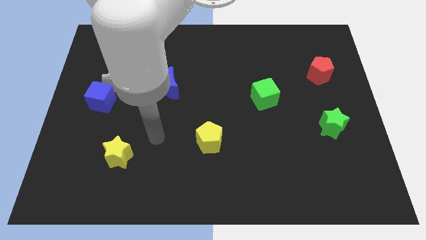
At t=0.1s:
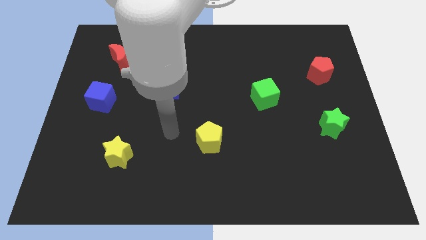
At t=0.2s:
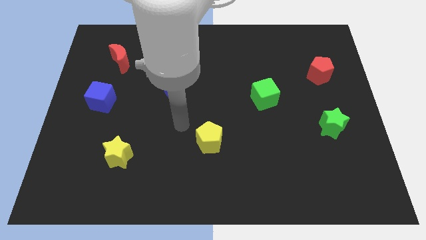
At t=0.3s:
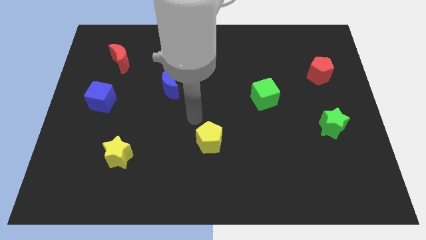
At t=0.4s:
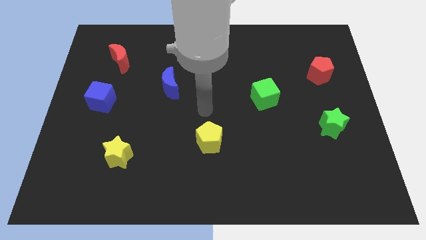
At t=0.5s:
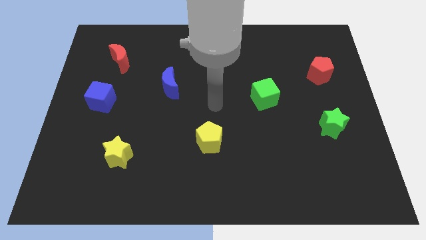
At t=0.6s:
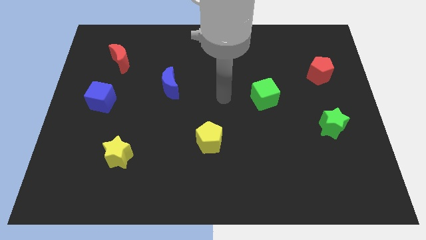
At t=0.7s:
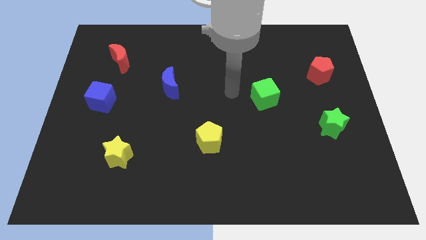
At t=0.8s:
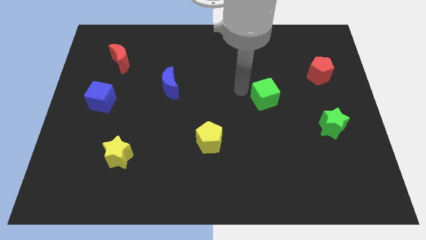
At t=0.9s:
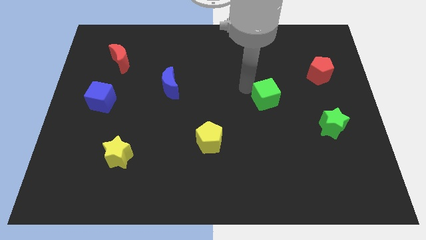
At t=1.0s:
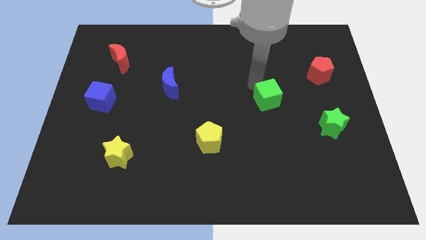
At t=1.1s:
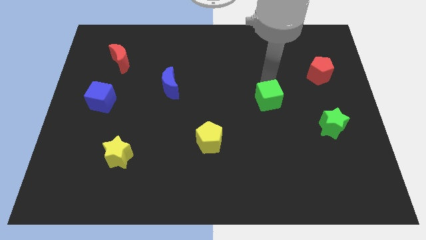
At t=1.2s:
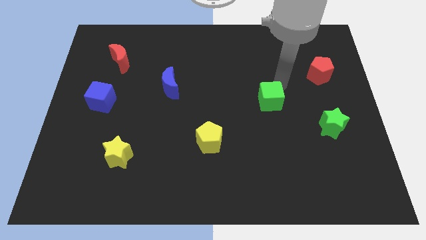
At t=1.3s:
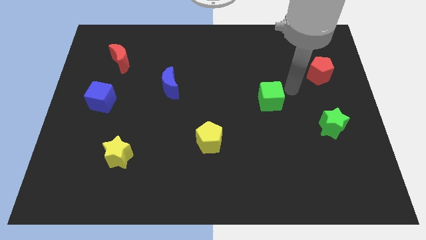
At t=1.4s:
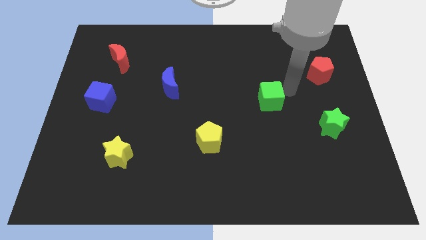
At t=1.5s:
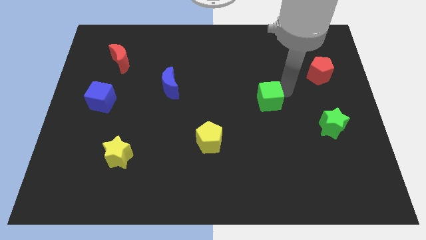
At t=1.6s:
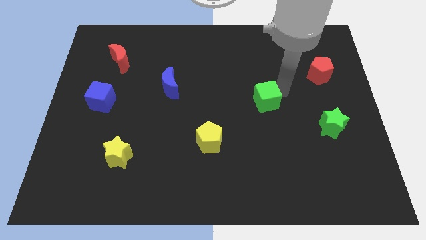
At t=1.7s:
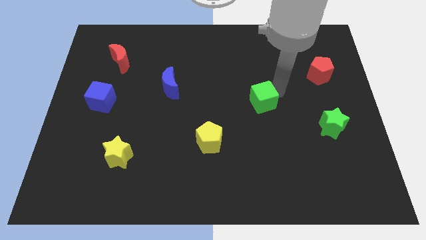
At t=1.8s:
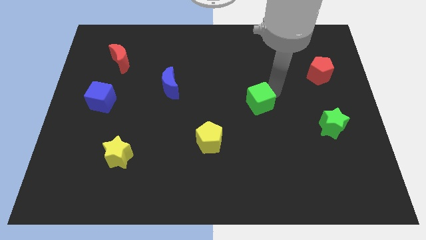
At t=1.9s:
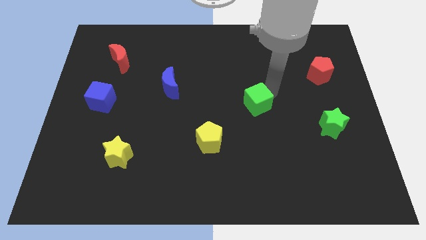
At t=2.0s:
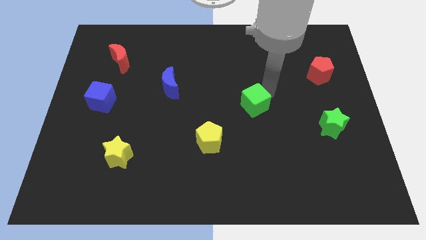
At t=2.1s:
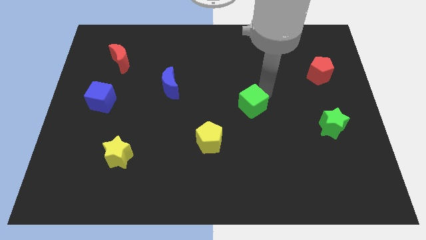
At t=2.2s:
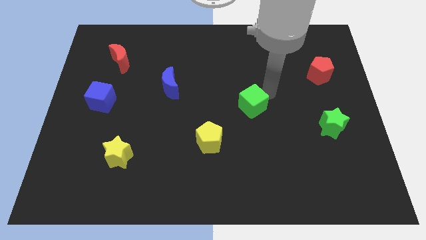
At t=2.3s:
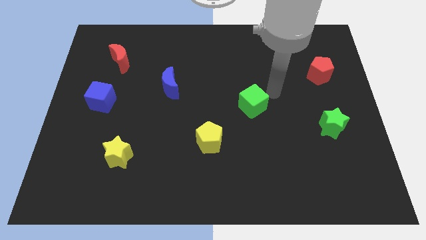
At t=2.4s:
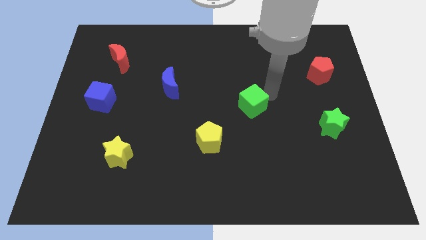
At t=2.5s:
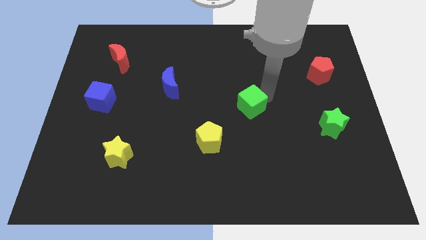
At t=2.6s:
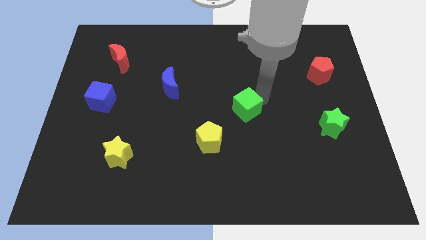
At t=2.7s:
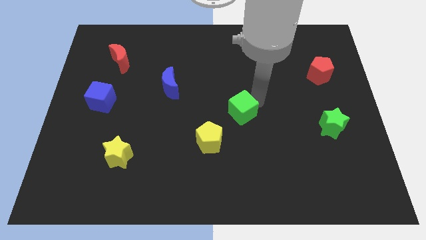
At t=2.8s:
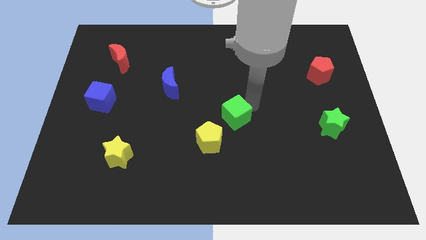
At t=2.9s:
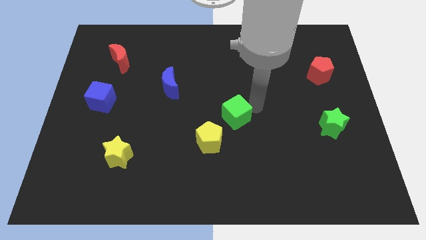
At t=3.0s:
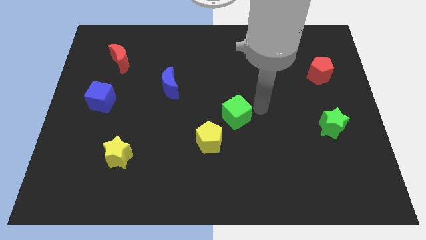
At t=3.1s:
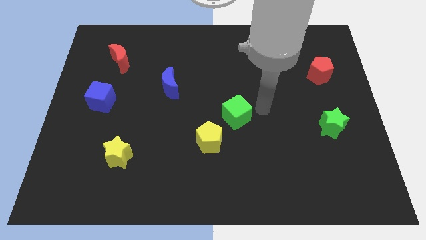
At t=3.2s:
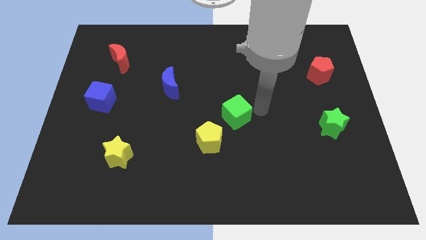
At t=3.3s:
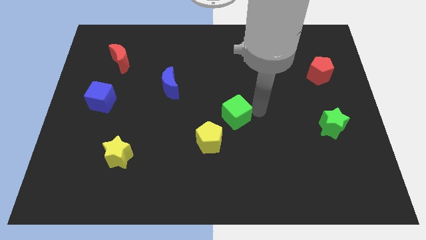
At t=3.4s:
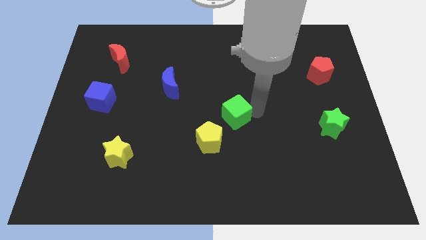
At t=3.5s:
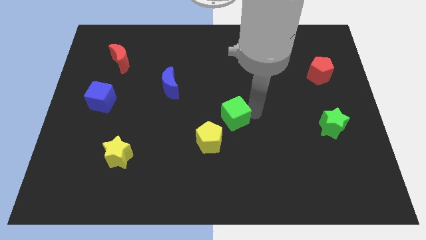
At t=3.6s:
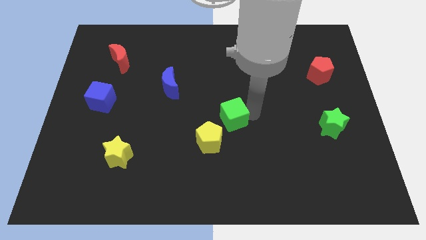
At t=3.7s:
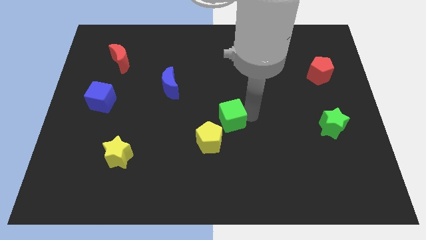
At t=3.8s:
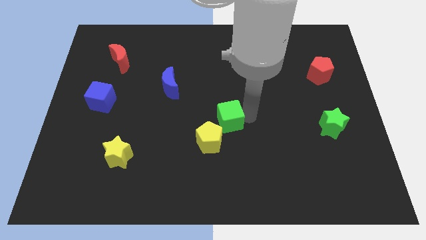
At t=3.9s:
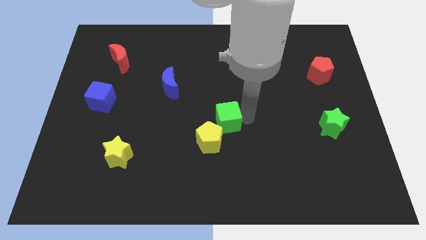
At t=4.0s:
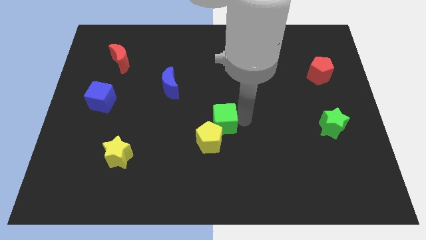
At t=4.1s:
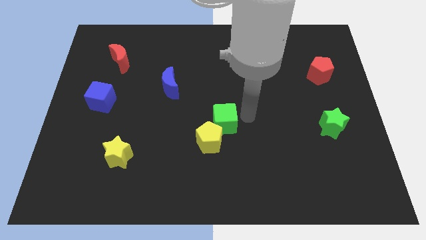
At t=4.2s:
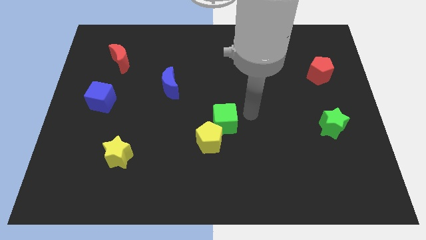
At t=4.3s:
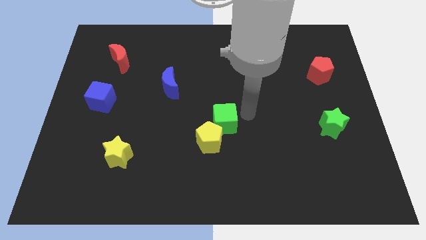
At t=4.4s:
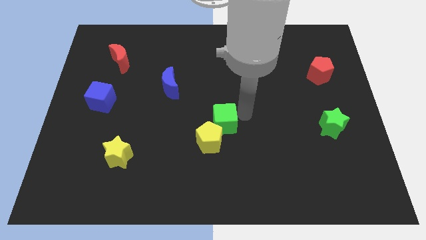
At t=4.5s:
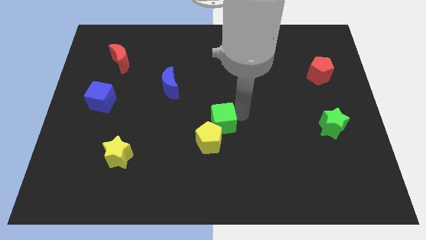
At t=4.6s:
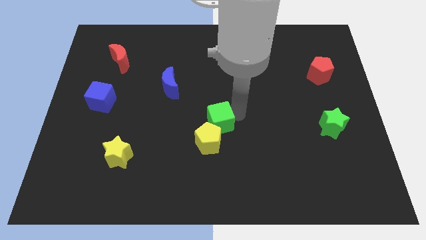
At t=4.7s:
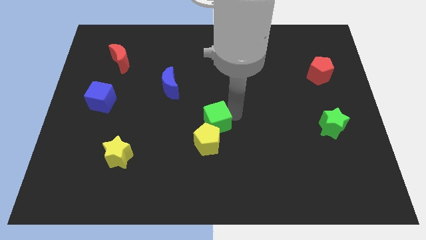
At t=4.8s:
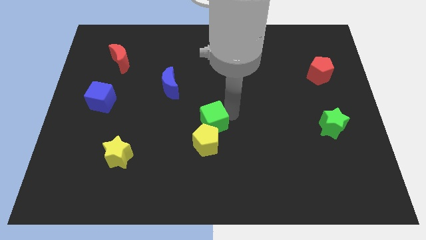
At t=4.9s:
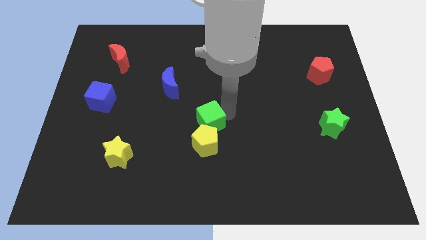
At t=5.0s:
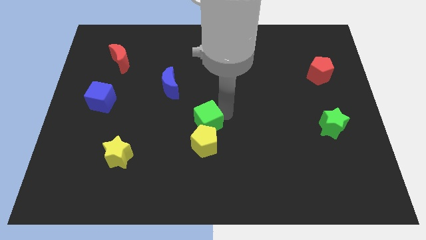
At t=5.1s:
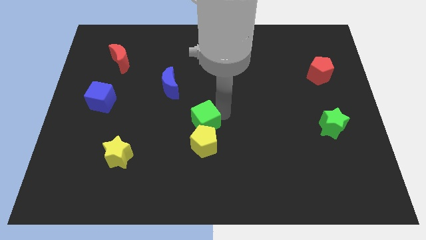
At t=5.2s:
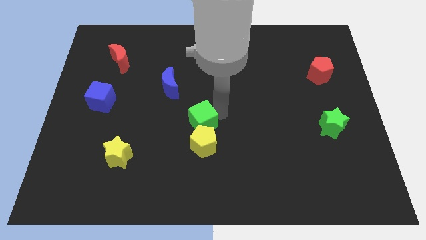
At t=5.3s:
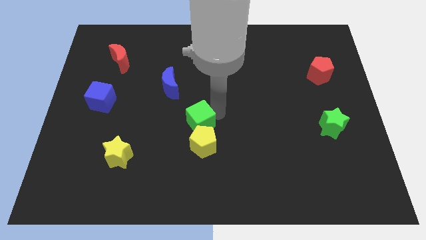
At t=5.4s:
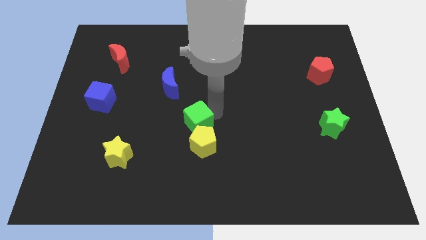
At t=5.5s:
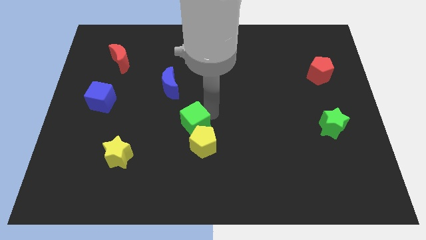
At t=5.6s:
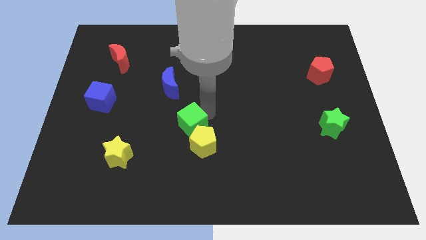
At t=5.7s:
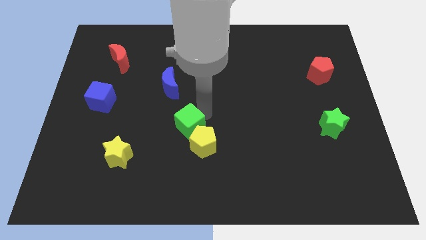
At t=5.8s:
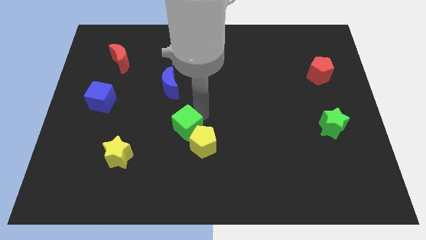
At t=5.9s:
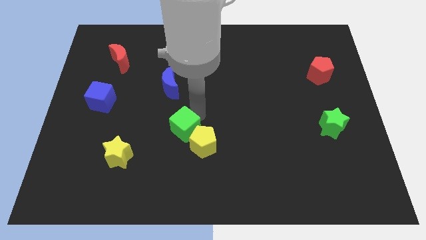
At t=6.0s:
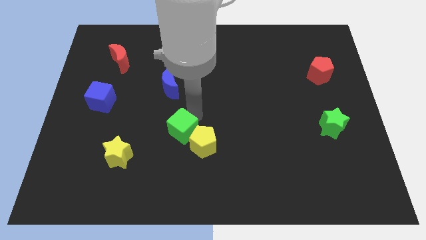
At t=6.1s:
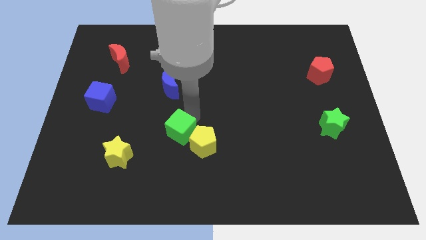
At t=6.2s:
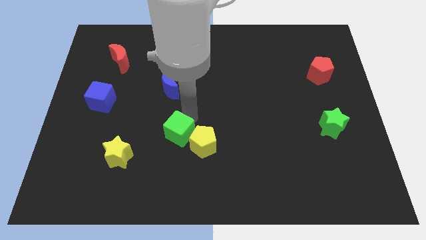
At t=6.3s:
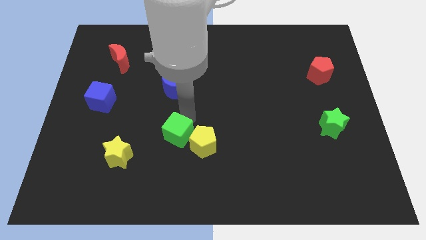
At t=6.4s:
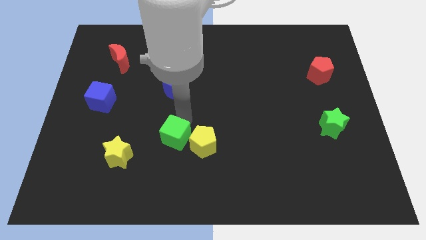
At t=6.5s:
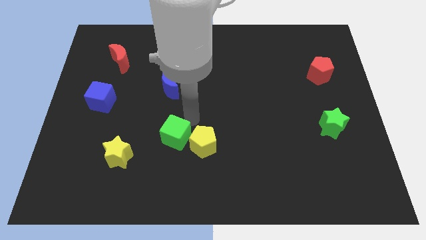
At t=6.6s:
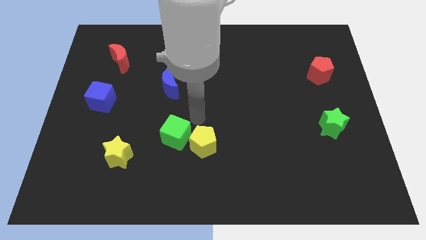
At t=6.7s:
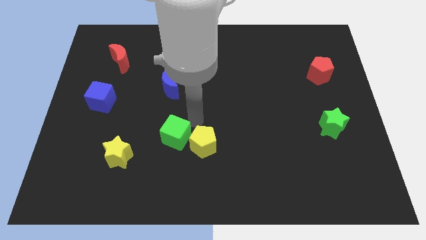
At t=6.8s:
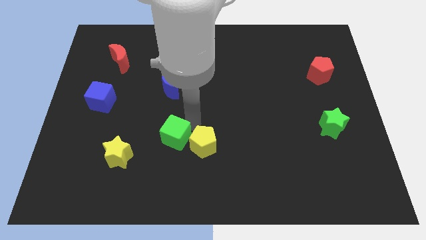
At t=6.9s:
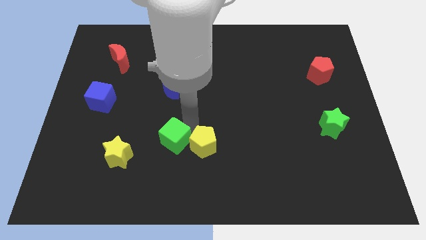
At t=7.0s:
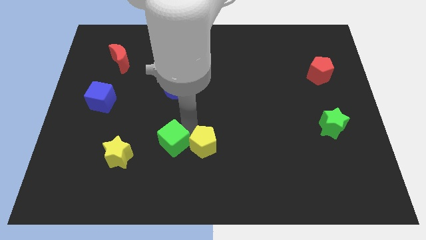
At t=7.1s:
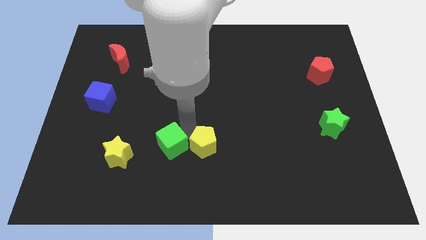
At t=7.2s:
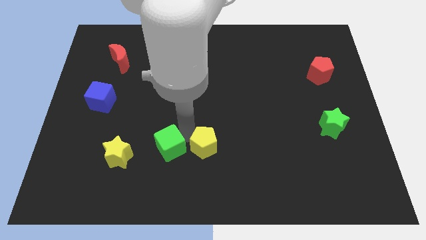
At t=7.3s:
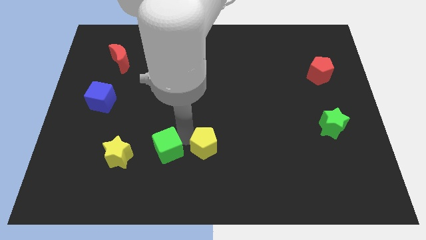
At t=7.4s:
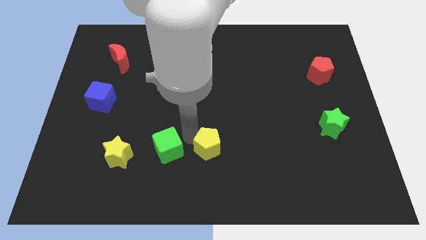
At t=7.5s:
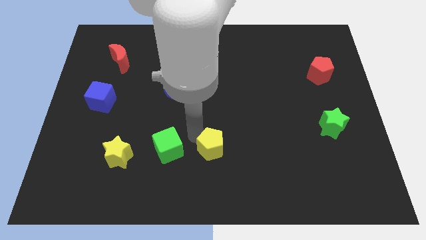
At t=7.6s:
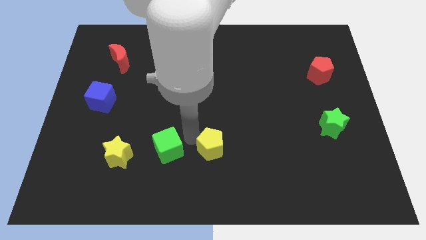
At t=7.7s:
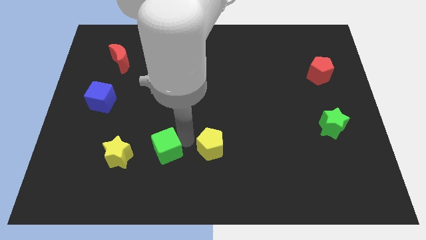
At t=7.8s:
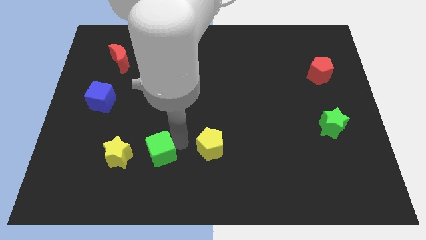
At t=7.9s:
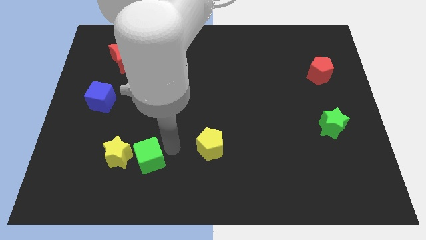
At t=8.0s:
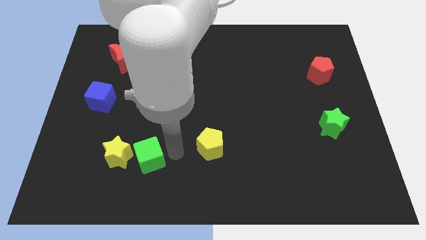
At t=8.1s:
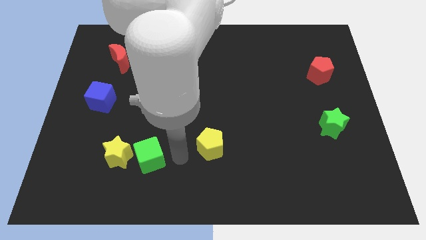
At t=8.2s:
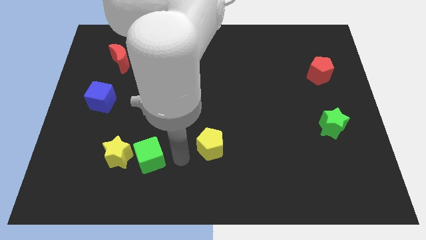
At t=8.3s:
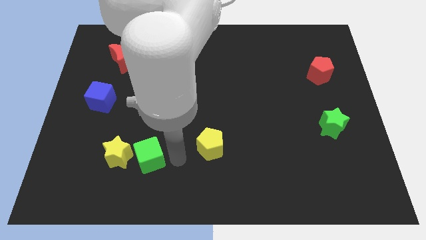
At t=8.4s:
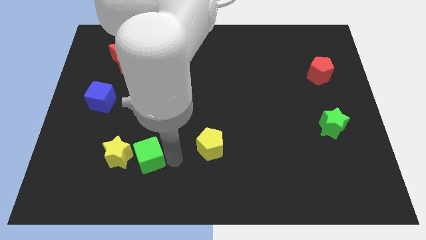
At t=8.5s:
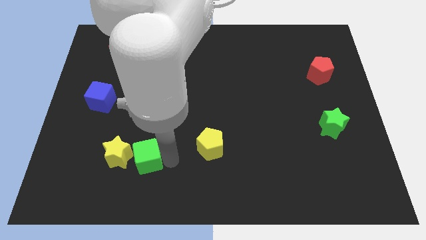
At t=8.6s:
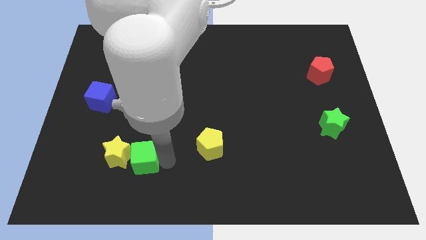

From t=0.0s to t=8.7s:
move the green cube close to the yellow star
